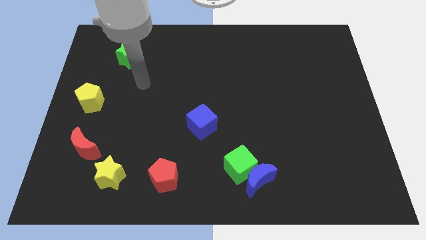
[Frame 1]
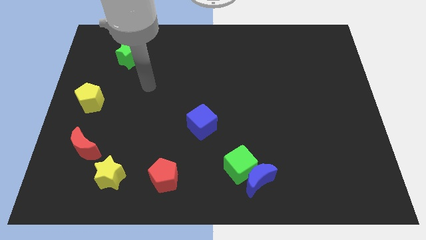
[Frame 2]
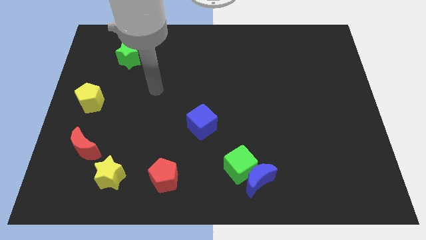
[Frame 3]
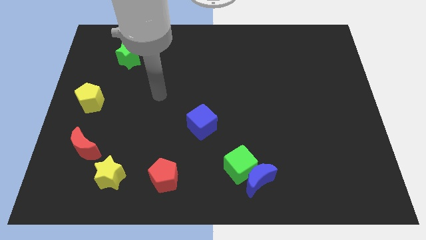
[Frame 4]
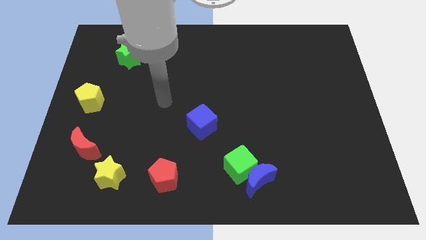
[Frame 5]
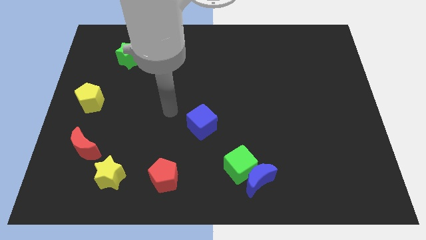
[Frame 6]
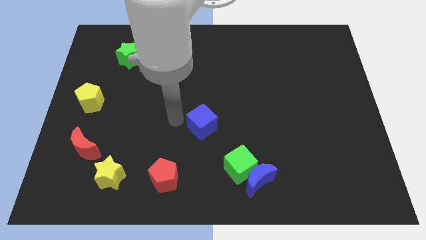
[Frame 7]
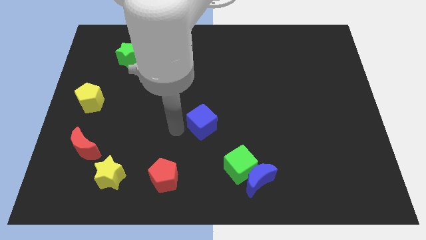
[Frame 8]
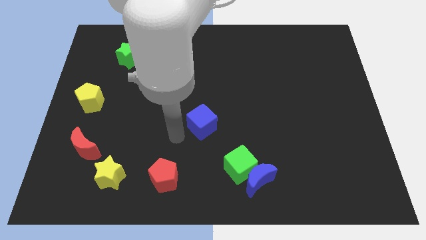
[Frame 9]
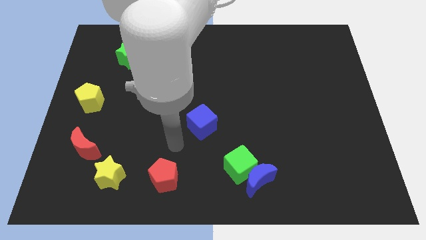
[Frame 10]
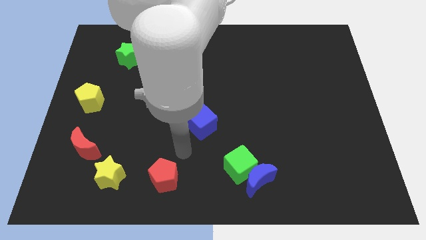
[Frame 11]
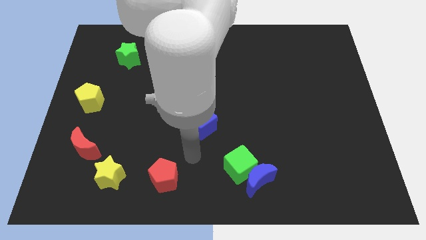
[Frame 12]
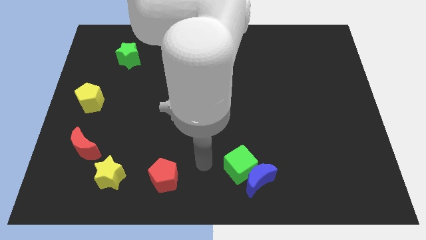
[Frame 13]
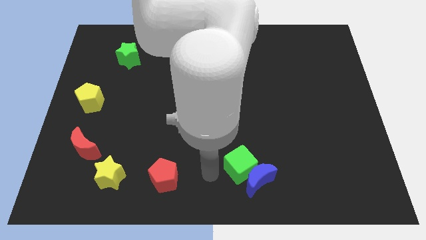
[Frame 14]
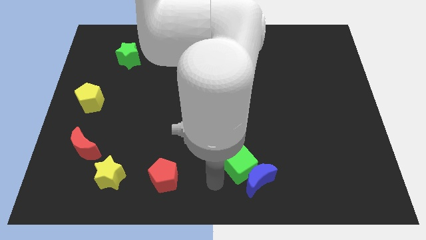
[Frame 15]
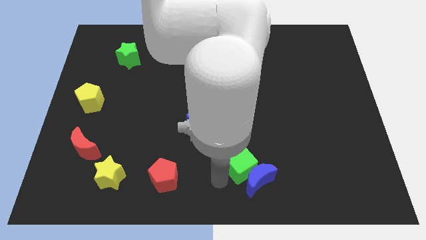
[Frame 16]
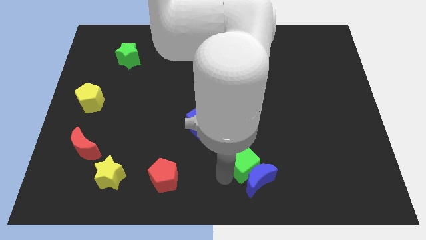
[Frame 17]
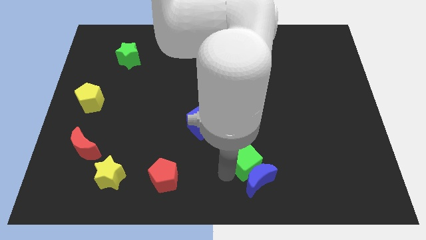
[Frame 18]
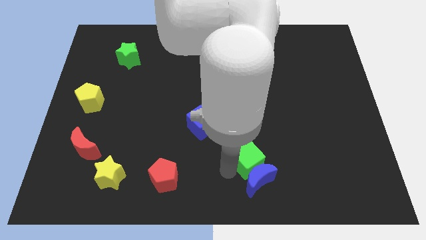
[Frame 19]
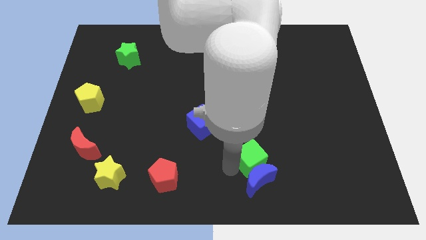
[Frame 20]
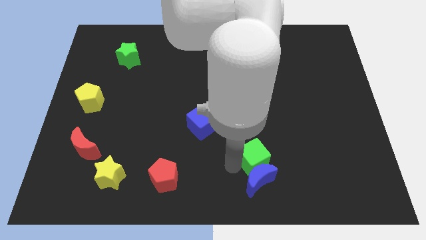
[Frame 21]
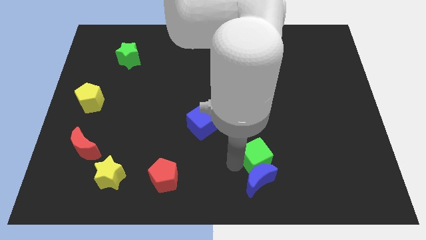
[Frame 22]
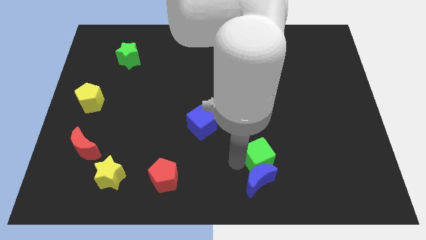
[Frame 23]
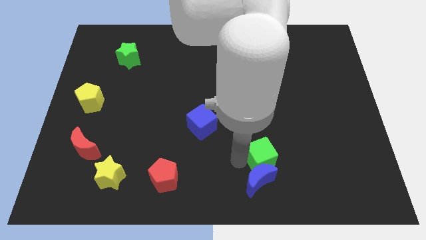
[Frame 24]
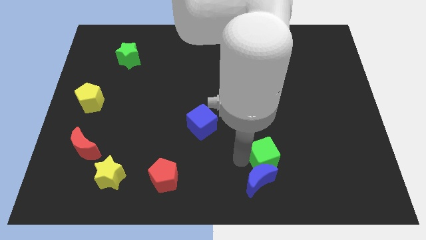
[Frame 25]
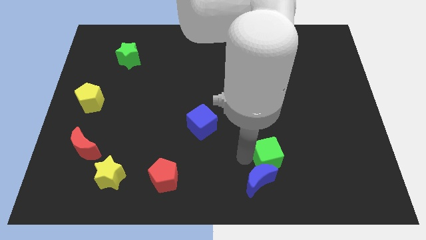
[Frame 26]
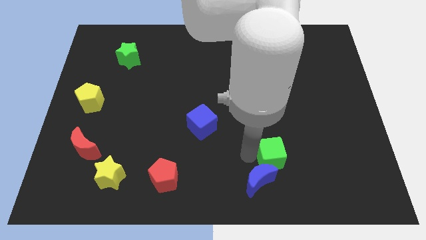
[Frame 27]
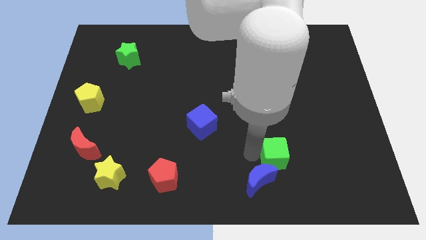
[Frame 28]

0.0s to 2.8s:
push the green cube a bit right

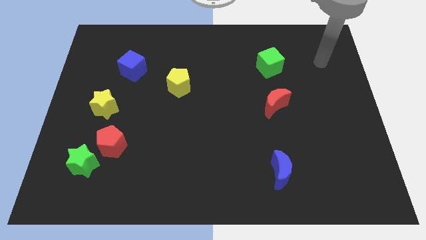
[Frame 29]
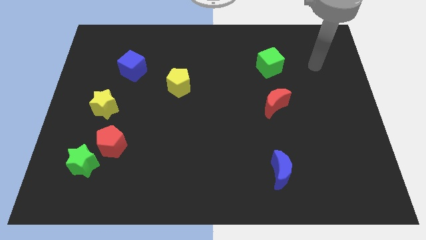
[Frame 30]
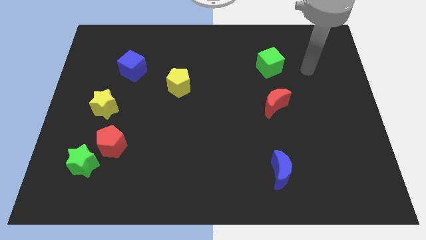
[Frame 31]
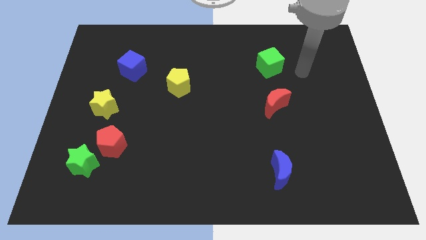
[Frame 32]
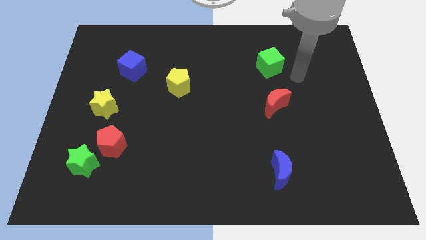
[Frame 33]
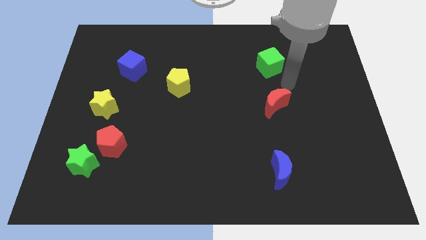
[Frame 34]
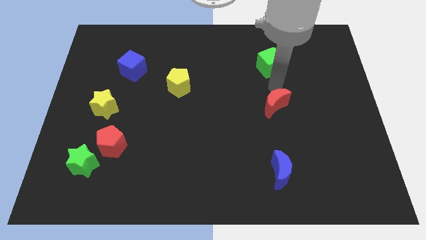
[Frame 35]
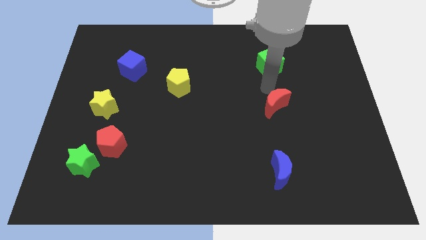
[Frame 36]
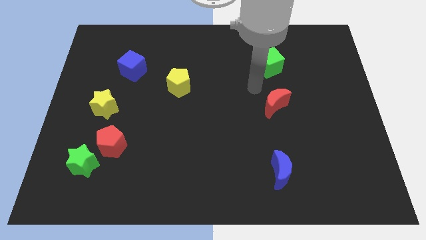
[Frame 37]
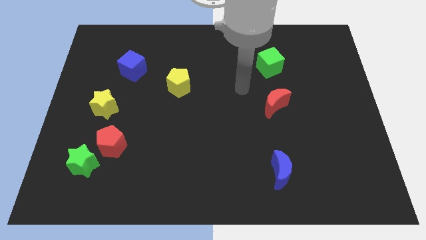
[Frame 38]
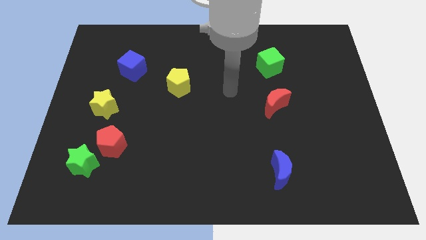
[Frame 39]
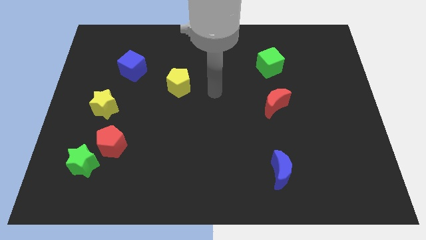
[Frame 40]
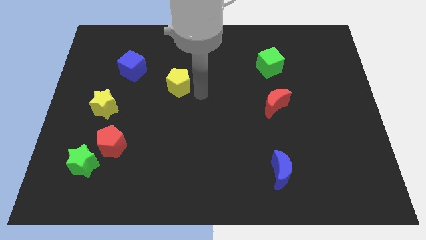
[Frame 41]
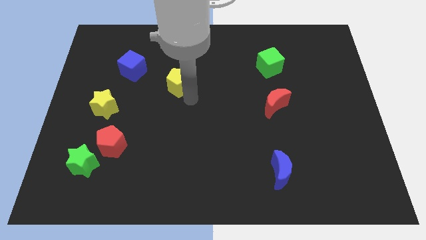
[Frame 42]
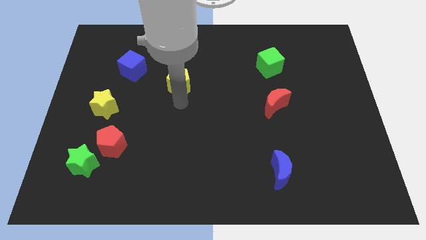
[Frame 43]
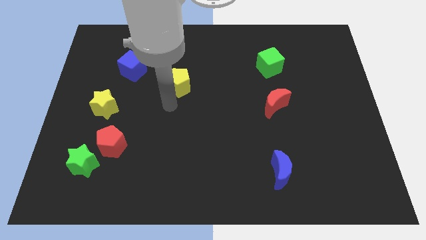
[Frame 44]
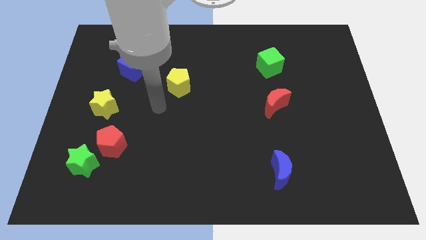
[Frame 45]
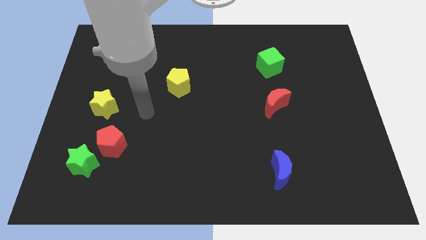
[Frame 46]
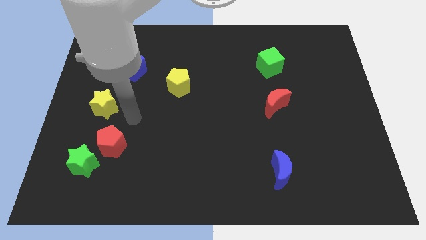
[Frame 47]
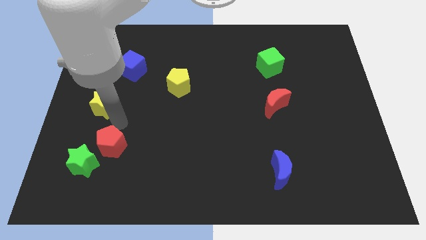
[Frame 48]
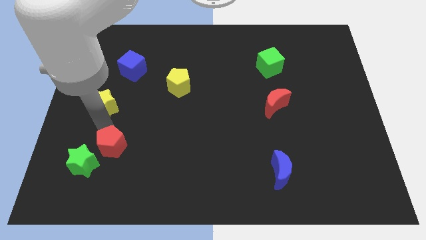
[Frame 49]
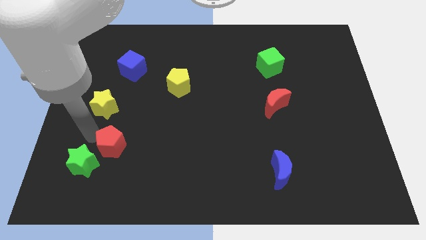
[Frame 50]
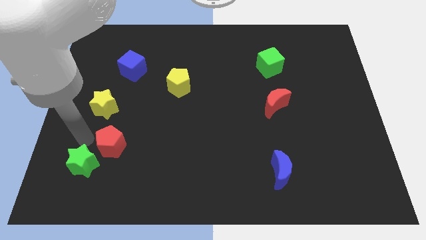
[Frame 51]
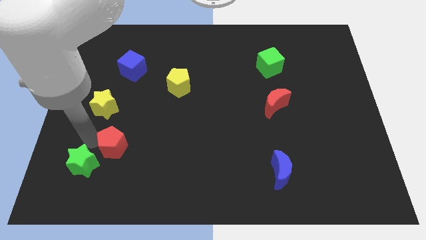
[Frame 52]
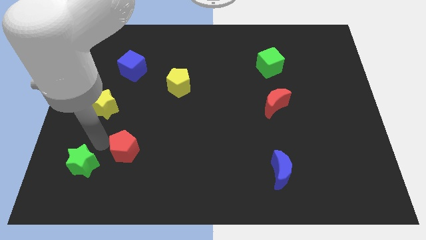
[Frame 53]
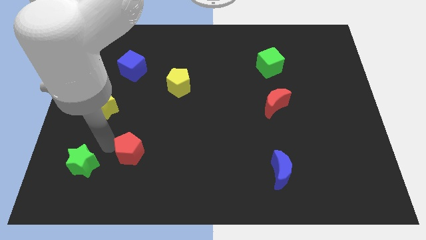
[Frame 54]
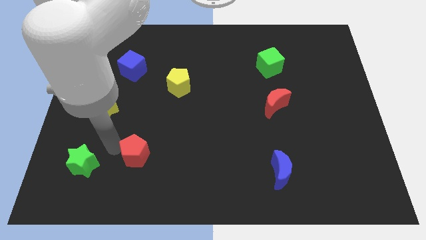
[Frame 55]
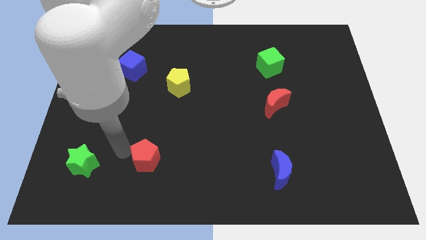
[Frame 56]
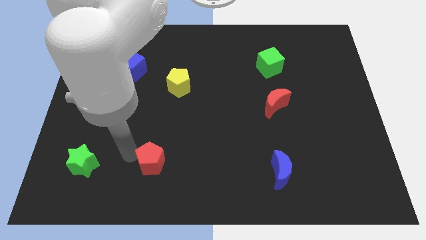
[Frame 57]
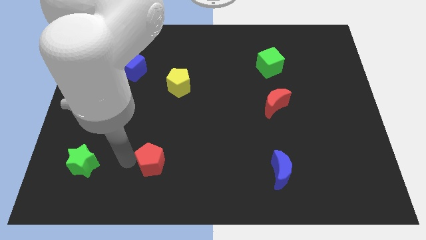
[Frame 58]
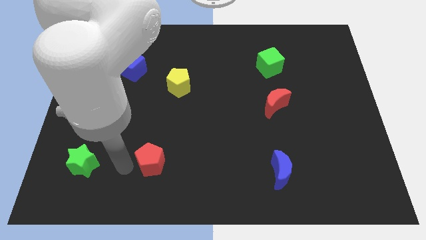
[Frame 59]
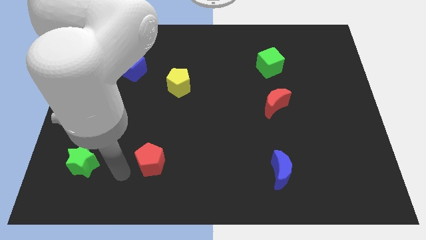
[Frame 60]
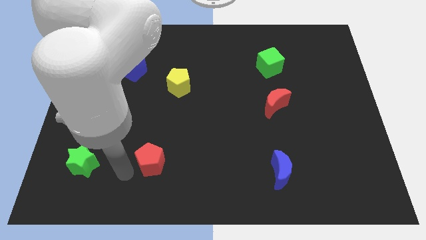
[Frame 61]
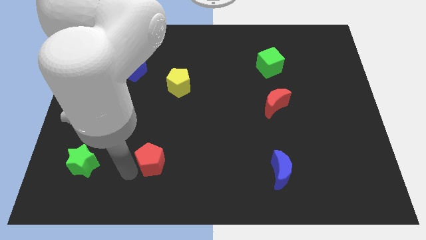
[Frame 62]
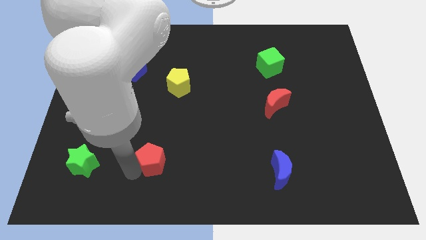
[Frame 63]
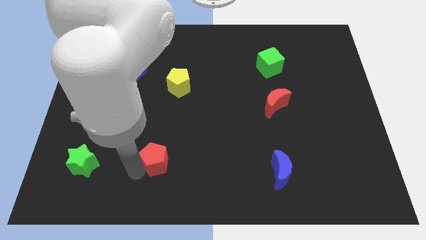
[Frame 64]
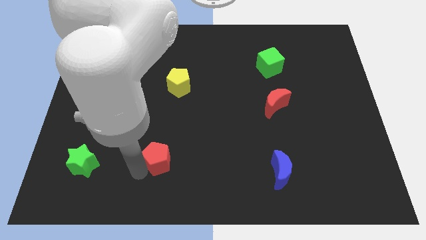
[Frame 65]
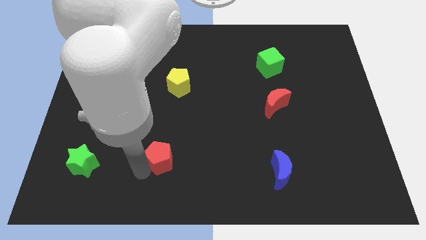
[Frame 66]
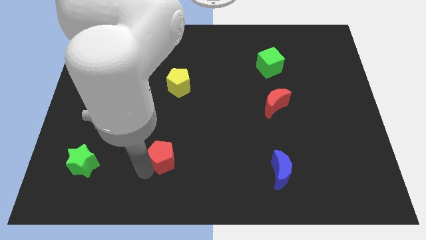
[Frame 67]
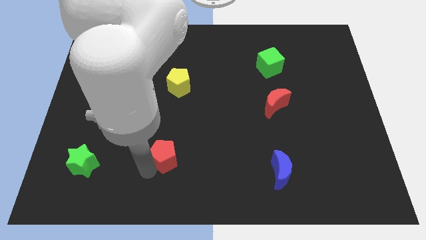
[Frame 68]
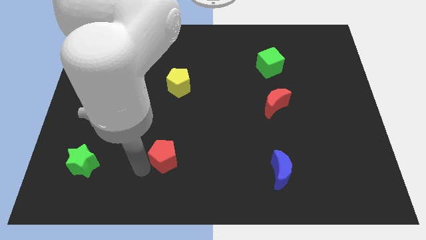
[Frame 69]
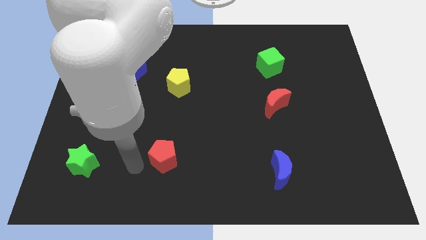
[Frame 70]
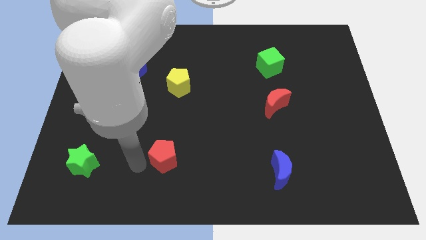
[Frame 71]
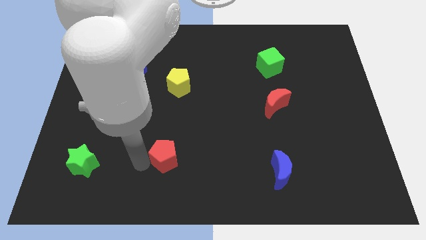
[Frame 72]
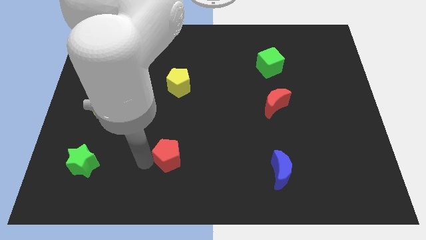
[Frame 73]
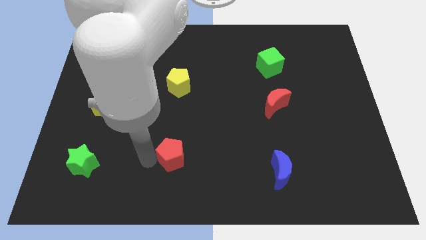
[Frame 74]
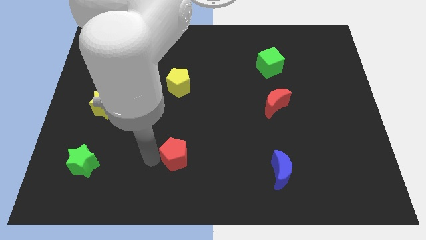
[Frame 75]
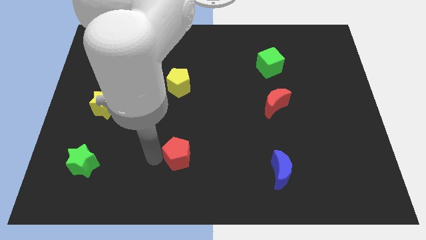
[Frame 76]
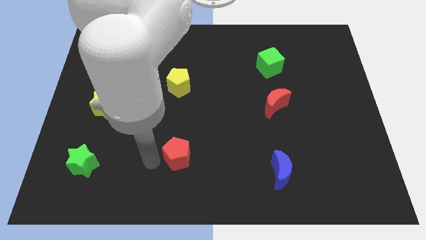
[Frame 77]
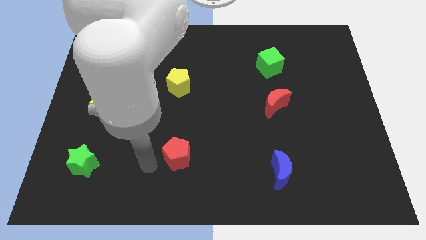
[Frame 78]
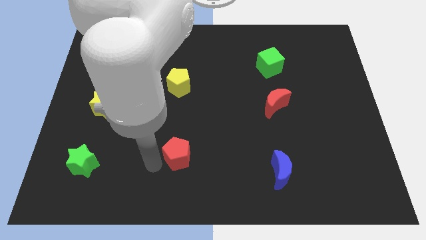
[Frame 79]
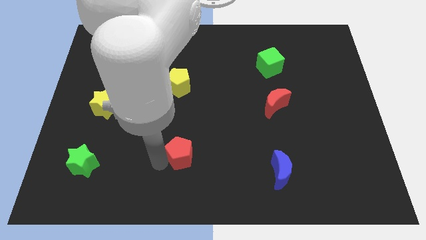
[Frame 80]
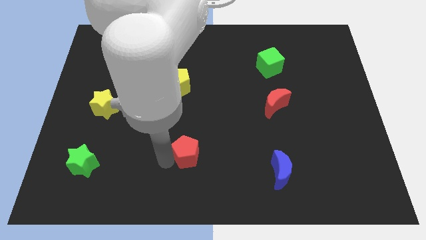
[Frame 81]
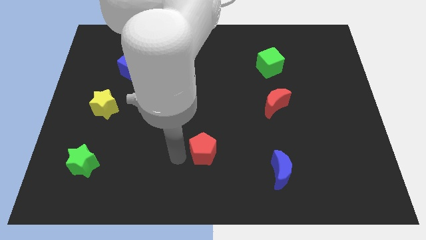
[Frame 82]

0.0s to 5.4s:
push the red pentagon right

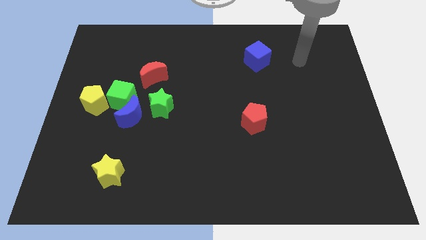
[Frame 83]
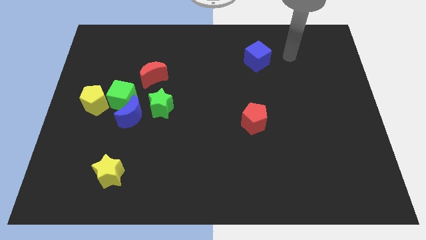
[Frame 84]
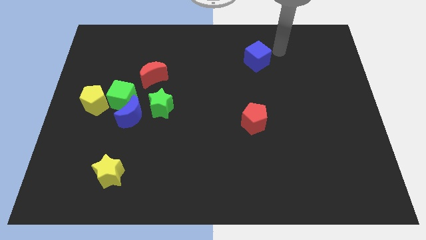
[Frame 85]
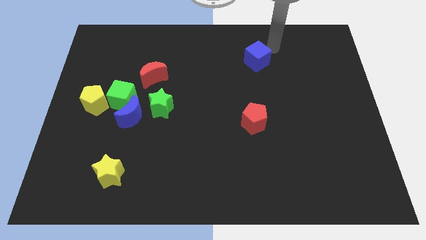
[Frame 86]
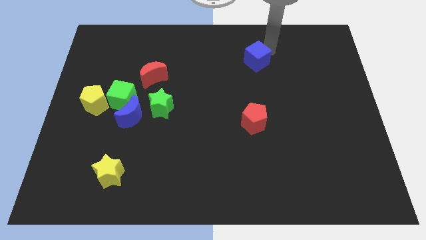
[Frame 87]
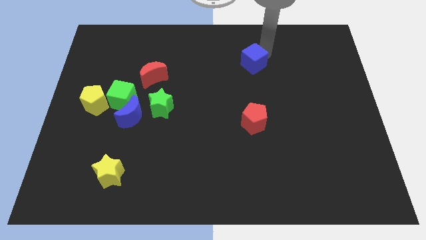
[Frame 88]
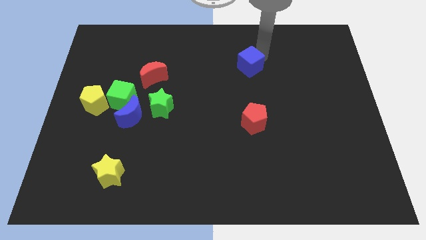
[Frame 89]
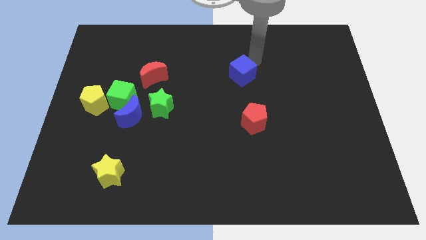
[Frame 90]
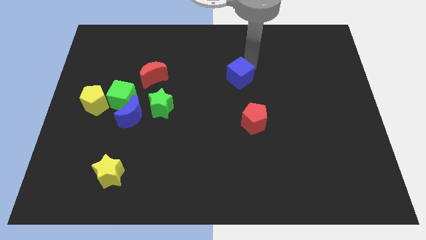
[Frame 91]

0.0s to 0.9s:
move the blue cube somewhat diagonally downwards and to the left
